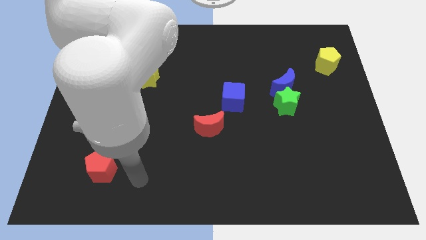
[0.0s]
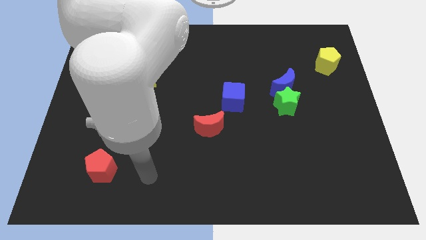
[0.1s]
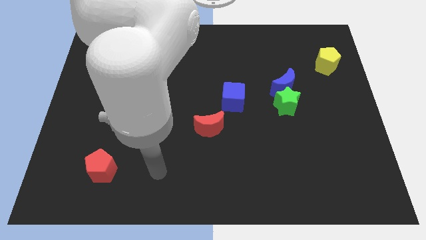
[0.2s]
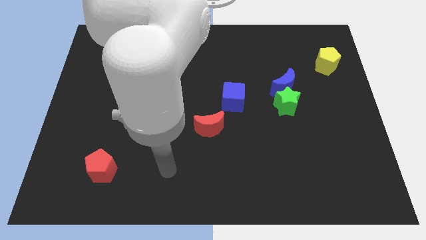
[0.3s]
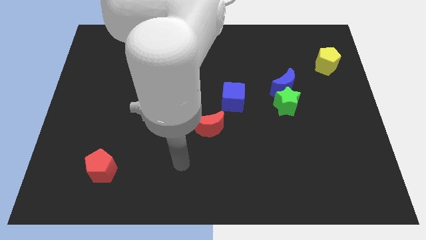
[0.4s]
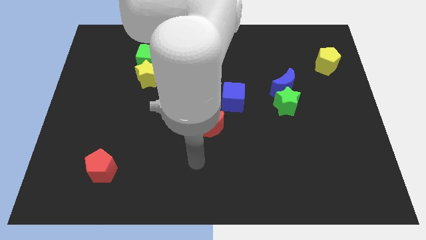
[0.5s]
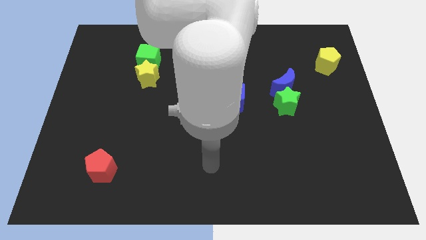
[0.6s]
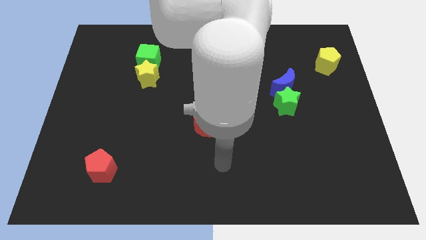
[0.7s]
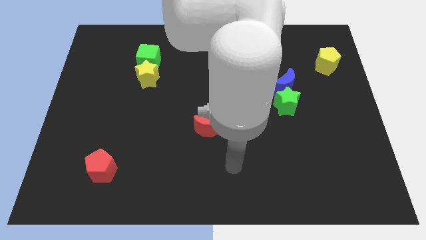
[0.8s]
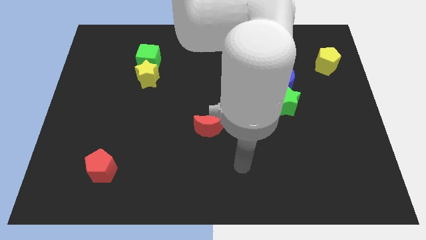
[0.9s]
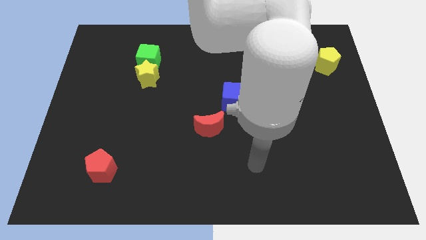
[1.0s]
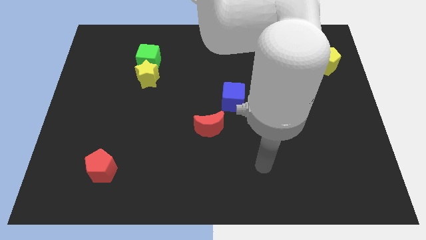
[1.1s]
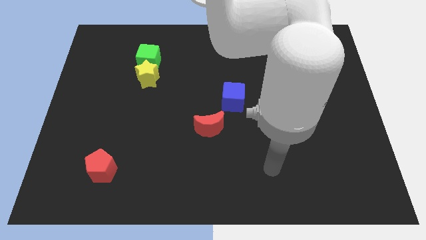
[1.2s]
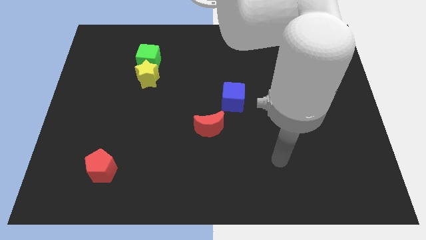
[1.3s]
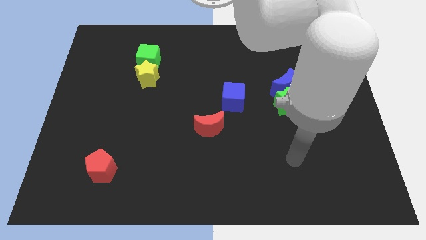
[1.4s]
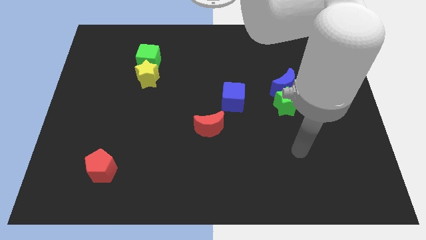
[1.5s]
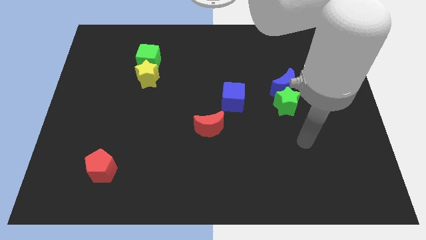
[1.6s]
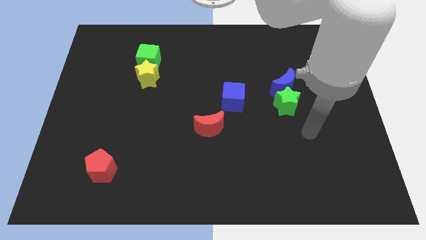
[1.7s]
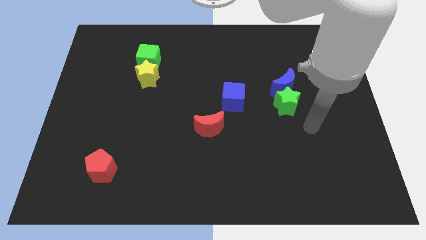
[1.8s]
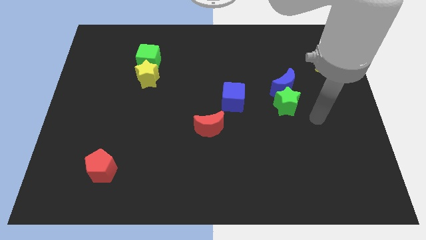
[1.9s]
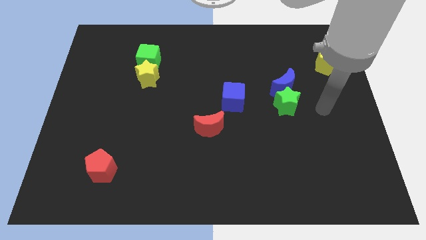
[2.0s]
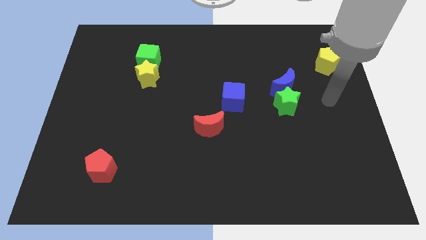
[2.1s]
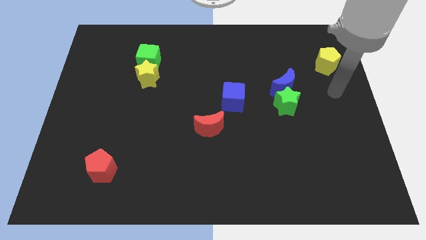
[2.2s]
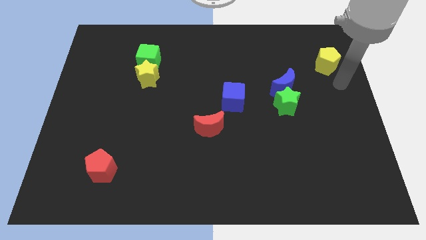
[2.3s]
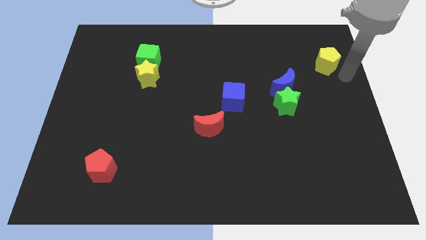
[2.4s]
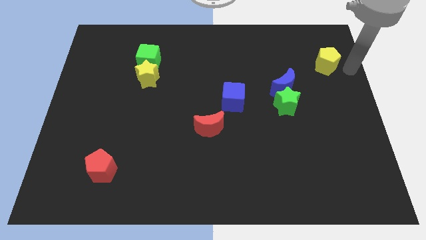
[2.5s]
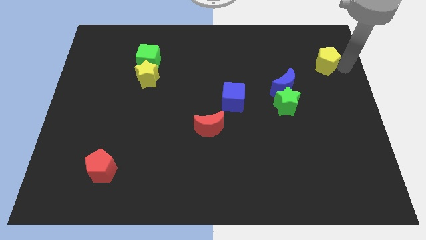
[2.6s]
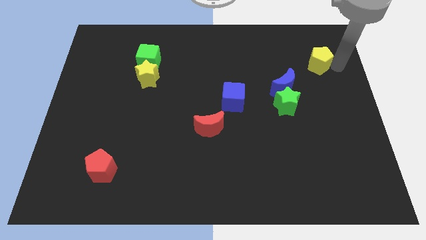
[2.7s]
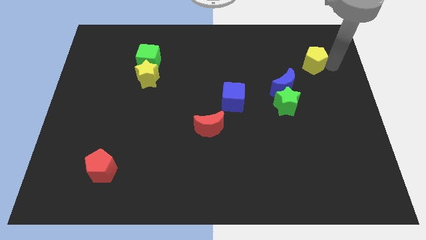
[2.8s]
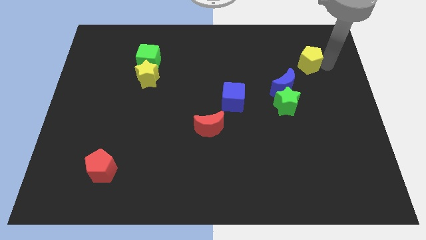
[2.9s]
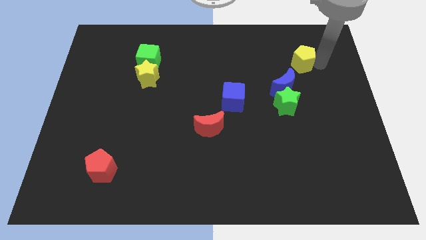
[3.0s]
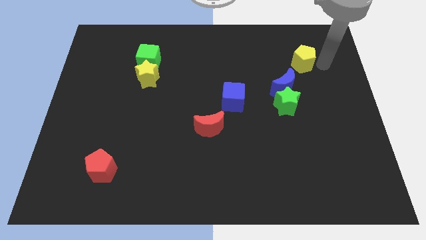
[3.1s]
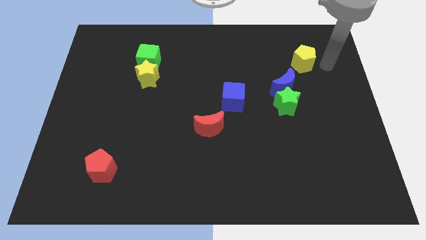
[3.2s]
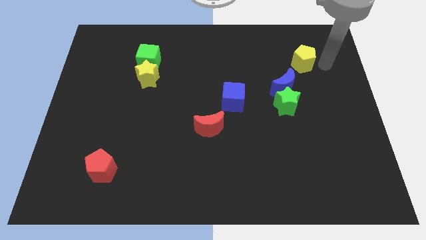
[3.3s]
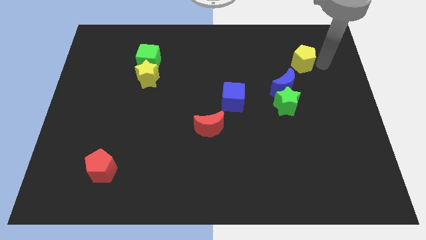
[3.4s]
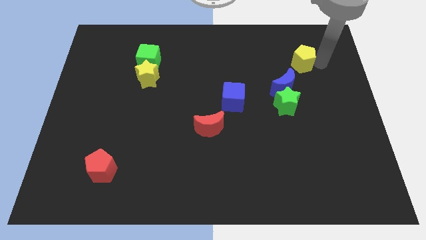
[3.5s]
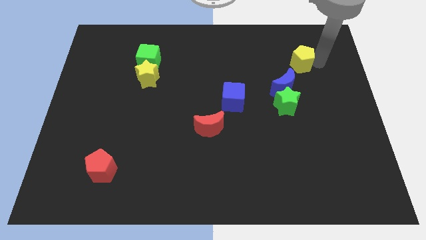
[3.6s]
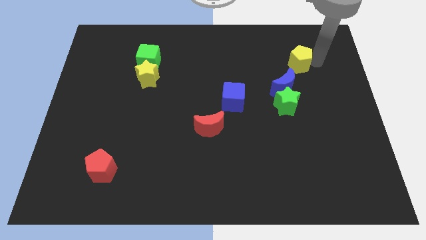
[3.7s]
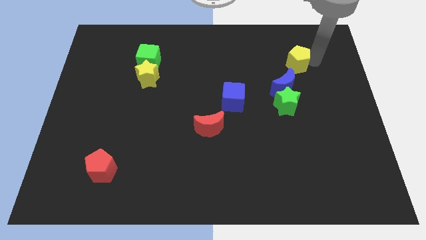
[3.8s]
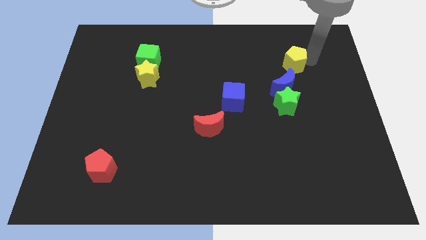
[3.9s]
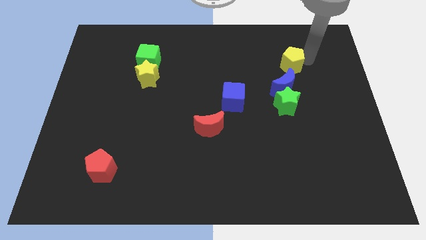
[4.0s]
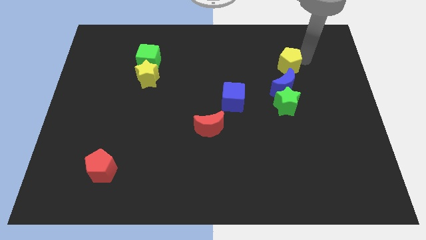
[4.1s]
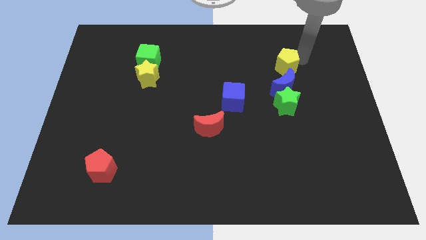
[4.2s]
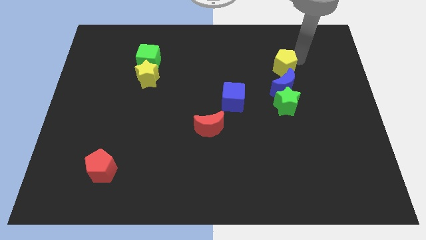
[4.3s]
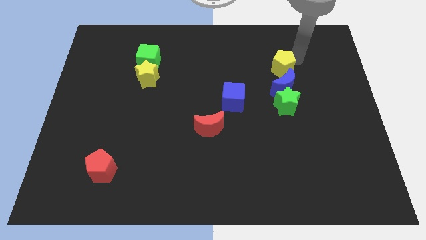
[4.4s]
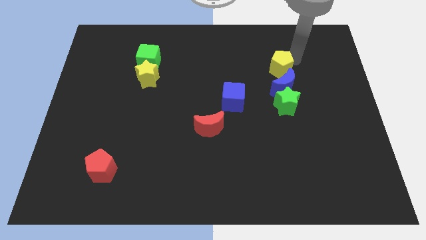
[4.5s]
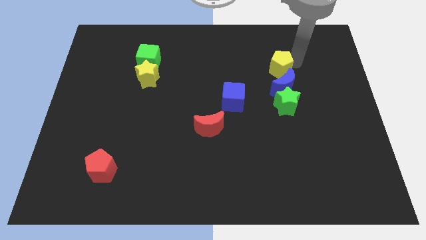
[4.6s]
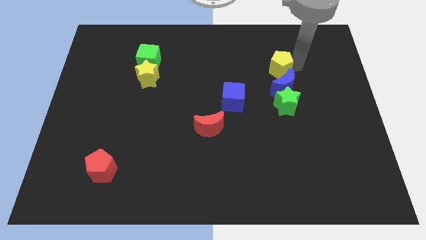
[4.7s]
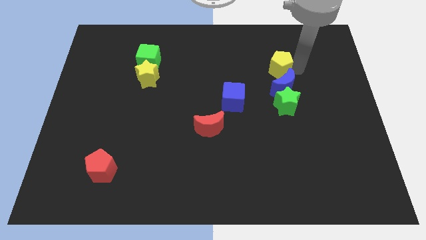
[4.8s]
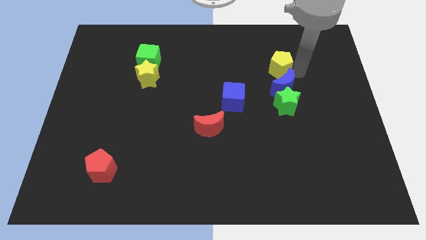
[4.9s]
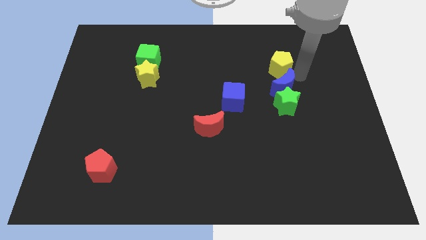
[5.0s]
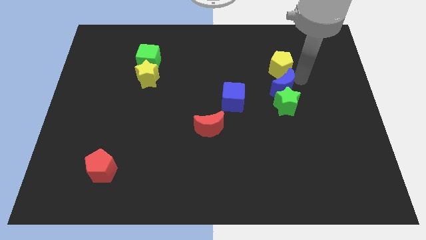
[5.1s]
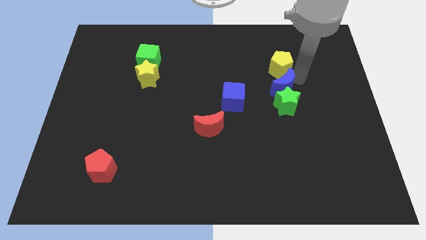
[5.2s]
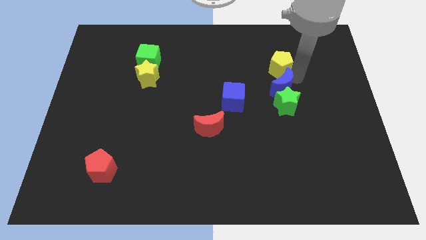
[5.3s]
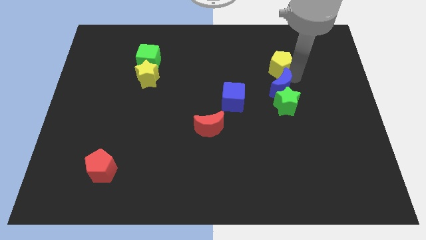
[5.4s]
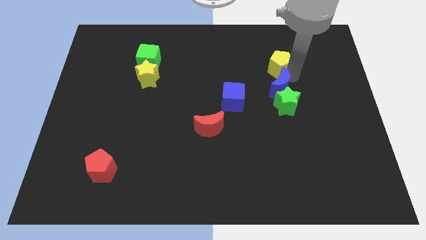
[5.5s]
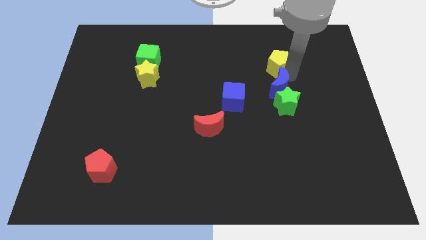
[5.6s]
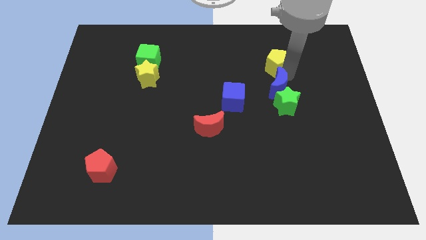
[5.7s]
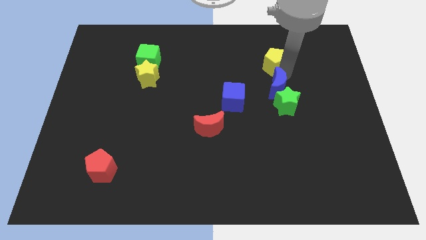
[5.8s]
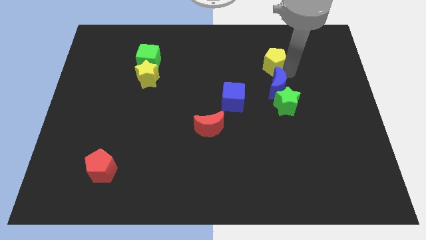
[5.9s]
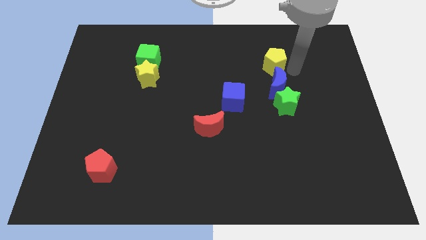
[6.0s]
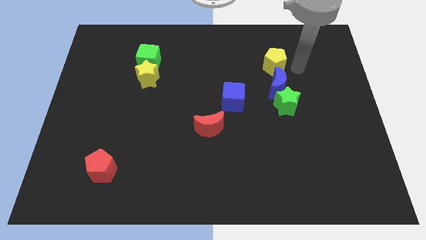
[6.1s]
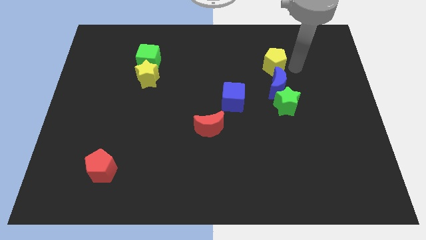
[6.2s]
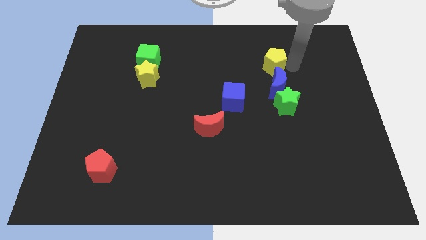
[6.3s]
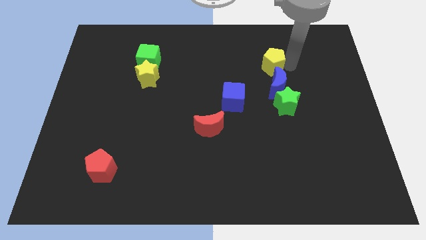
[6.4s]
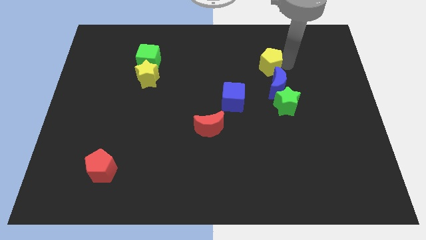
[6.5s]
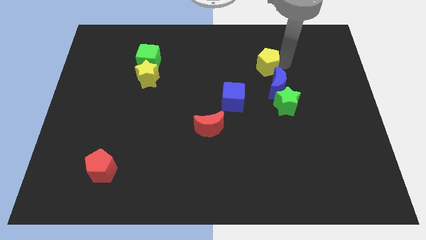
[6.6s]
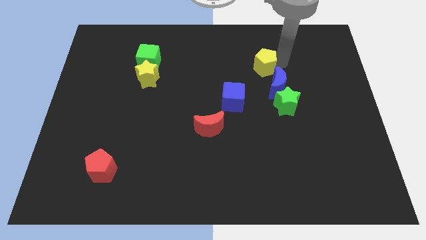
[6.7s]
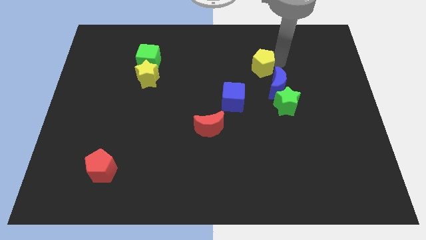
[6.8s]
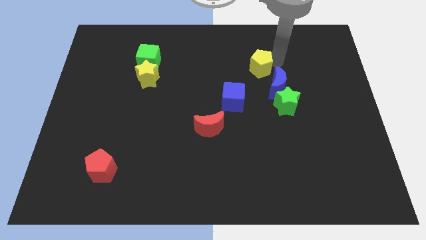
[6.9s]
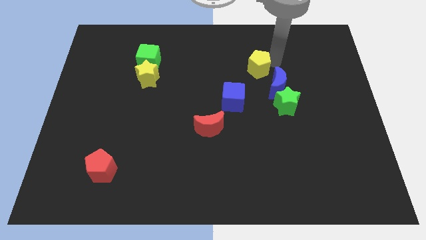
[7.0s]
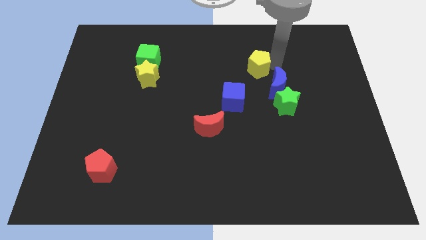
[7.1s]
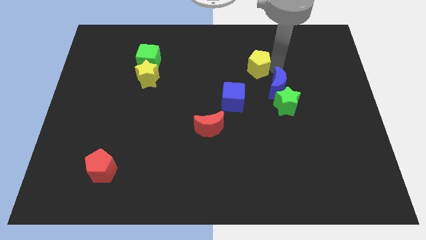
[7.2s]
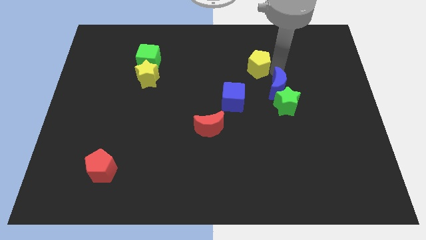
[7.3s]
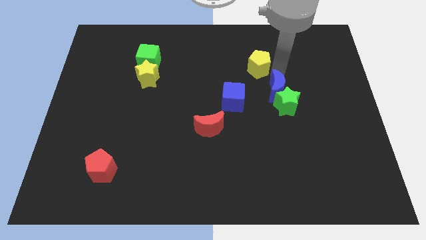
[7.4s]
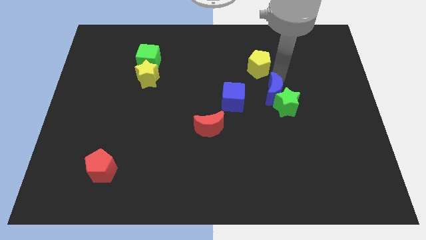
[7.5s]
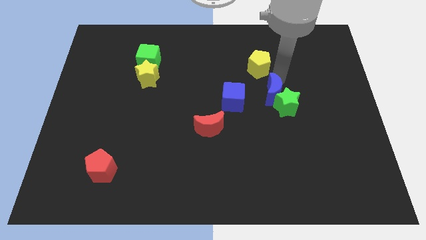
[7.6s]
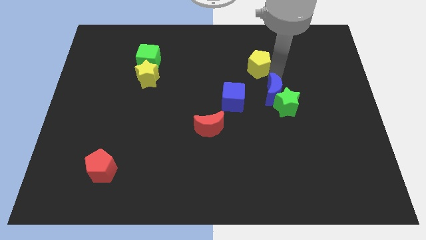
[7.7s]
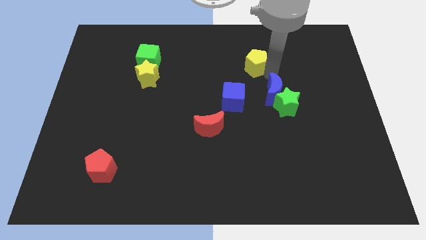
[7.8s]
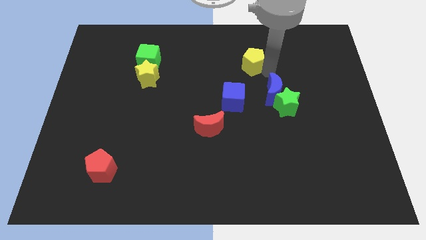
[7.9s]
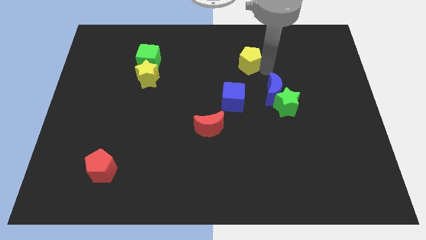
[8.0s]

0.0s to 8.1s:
slide the yellow pentagon left
